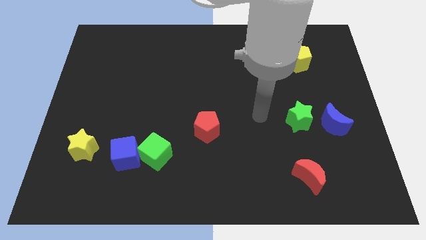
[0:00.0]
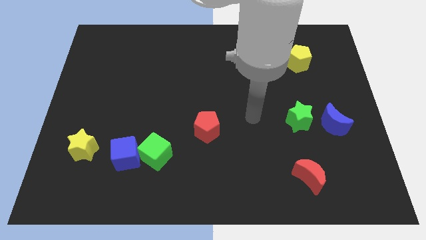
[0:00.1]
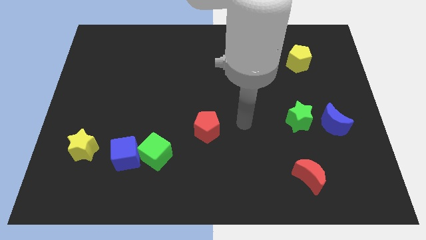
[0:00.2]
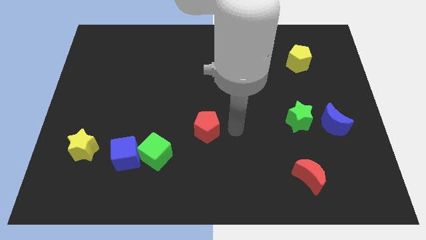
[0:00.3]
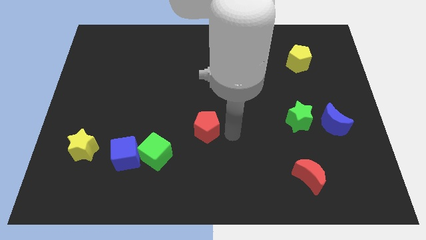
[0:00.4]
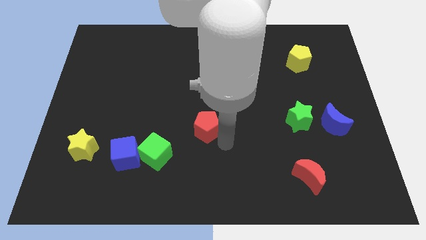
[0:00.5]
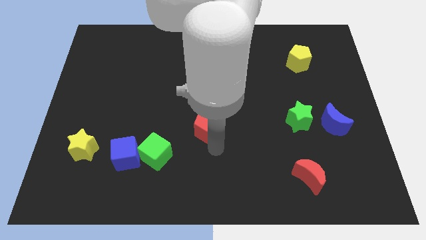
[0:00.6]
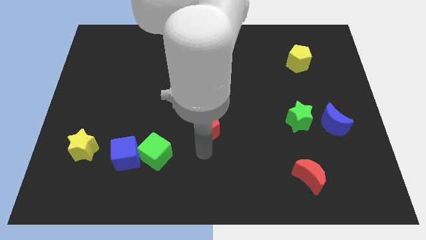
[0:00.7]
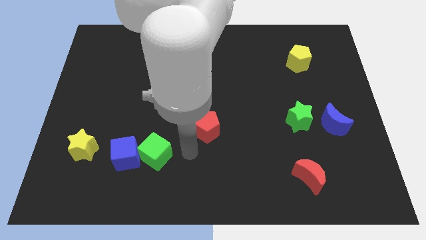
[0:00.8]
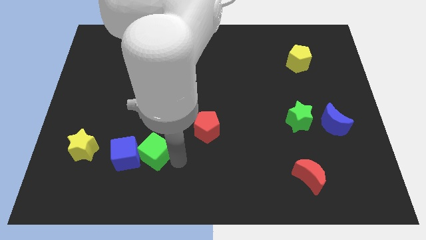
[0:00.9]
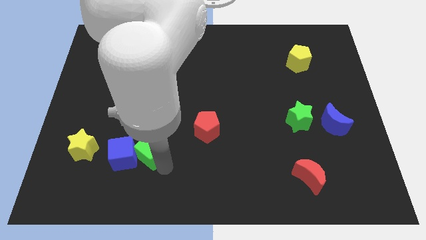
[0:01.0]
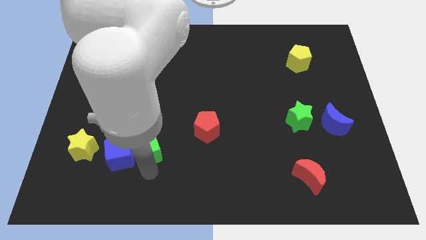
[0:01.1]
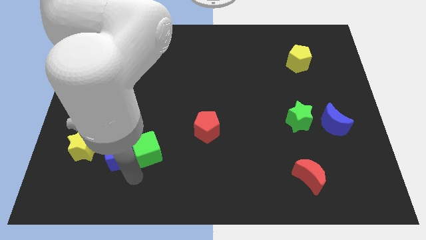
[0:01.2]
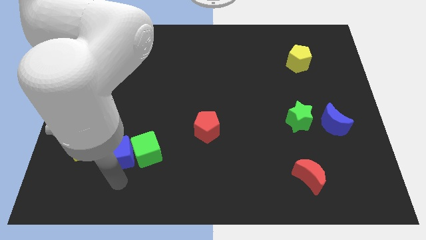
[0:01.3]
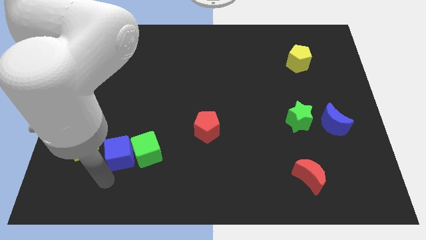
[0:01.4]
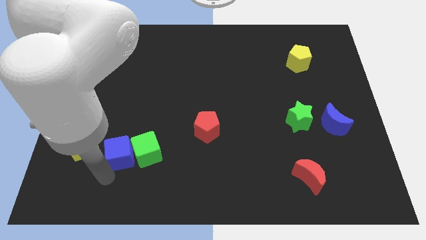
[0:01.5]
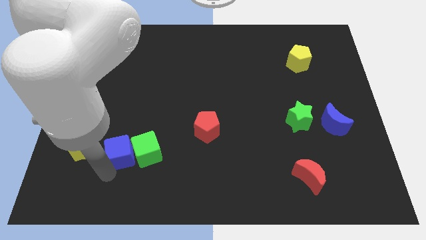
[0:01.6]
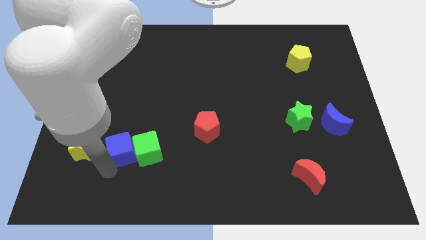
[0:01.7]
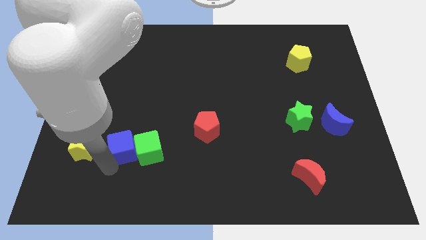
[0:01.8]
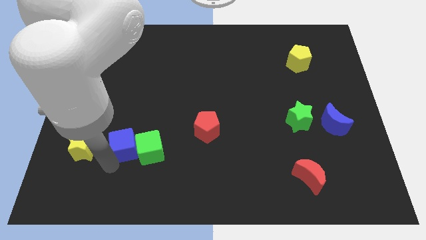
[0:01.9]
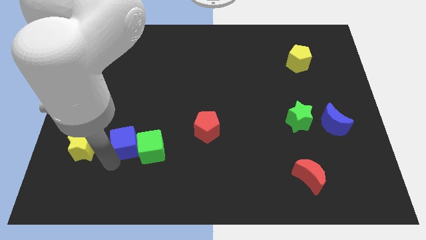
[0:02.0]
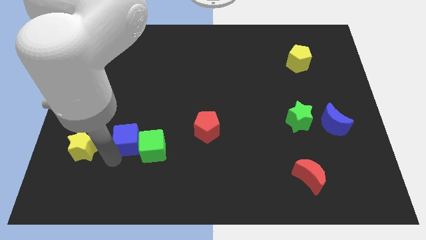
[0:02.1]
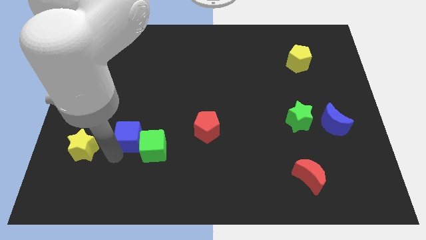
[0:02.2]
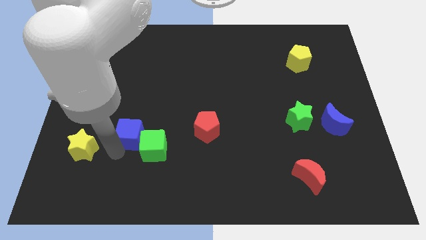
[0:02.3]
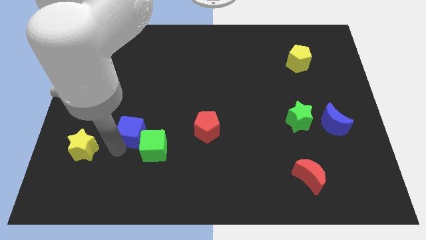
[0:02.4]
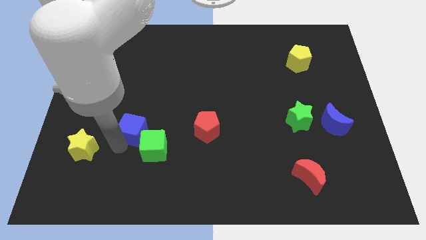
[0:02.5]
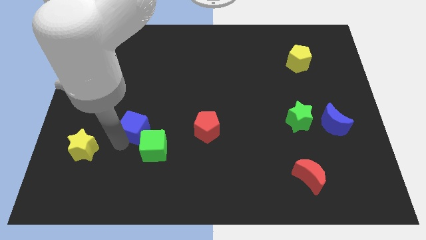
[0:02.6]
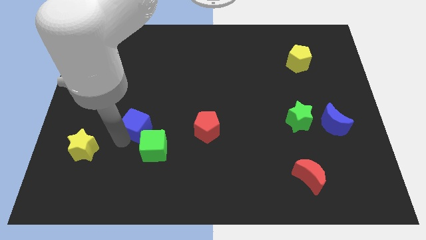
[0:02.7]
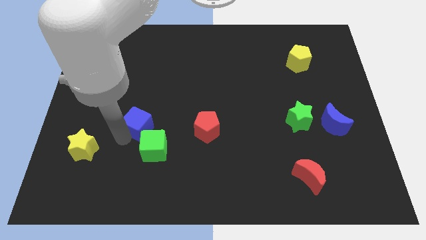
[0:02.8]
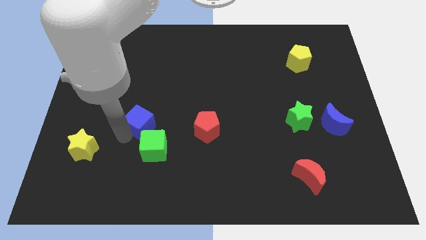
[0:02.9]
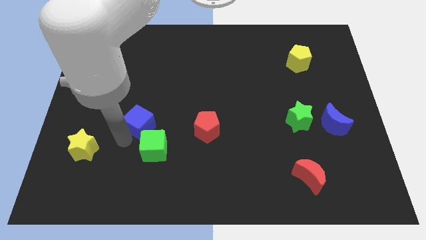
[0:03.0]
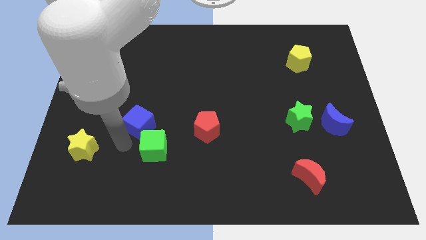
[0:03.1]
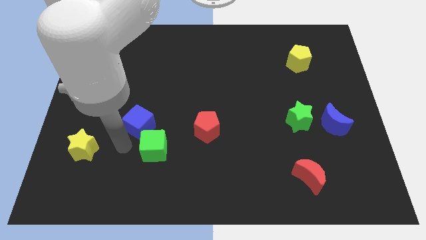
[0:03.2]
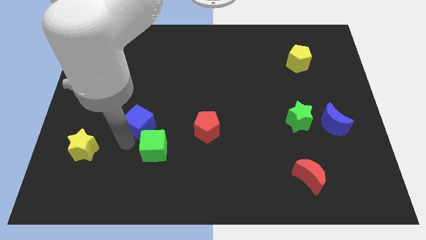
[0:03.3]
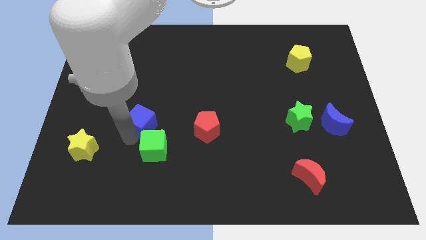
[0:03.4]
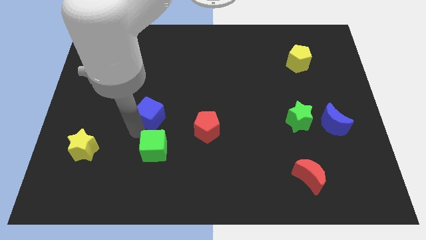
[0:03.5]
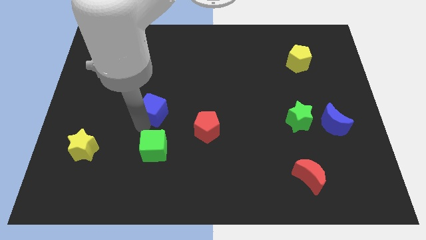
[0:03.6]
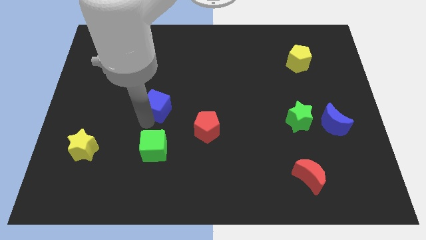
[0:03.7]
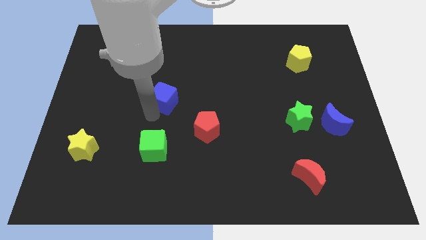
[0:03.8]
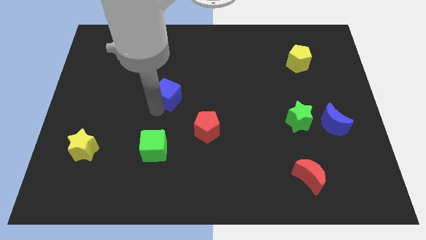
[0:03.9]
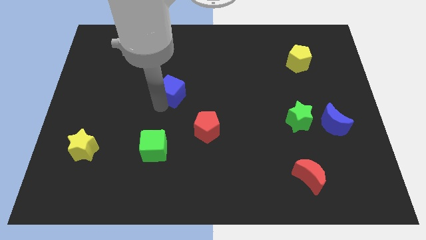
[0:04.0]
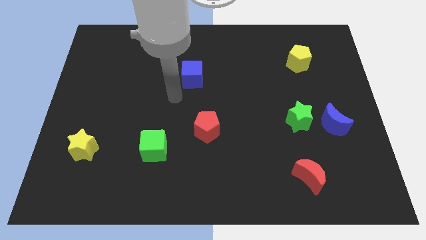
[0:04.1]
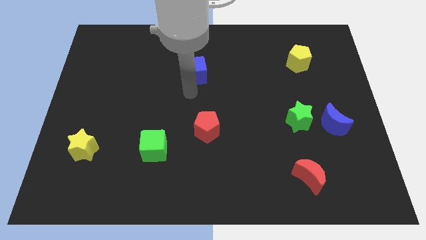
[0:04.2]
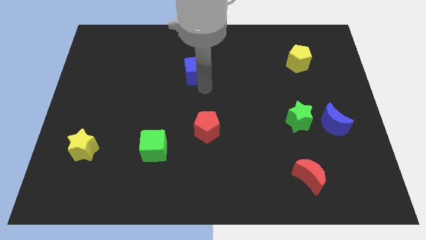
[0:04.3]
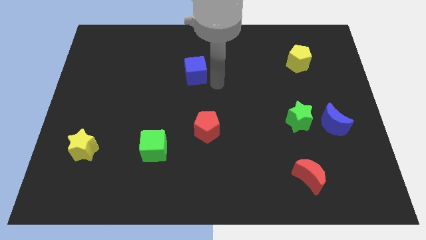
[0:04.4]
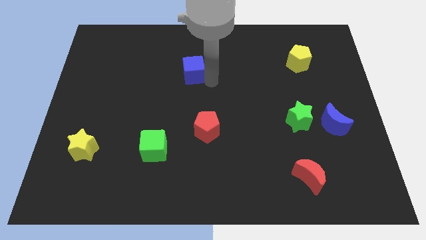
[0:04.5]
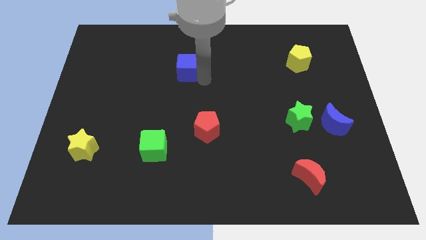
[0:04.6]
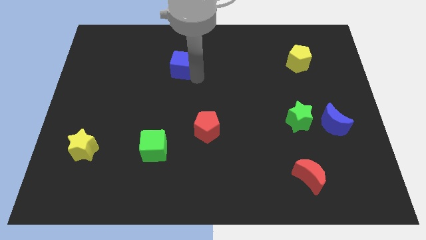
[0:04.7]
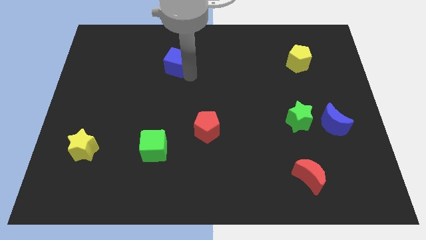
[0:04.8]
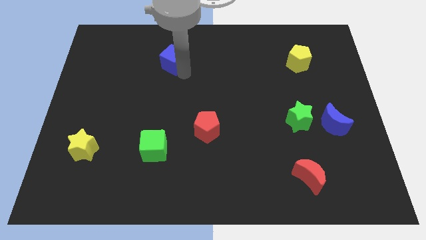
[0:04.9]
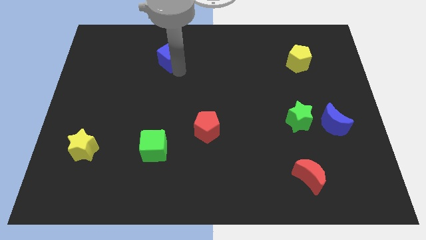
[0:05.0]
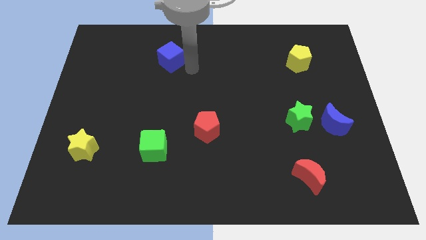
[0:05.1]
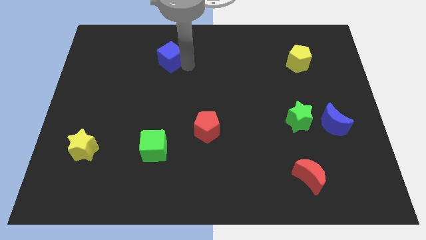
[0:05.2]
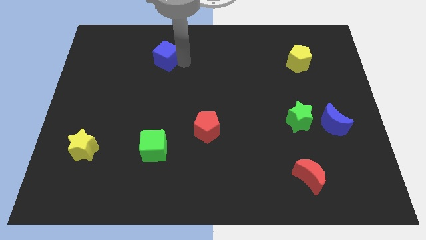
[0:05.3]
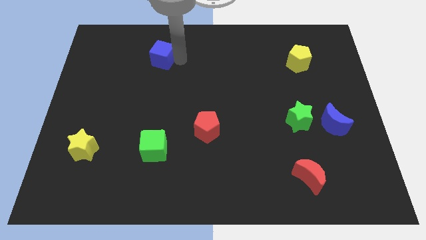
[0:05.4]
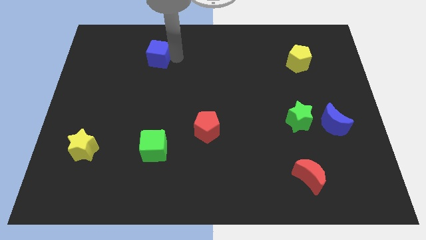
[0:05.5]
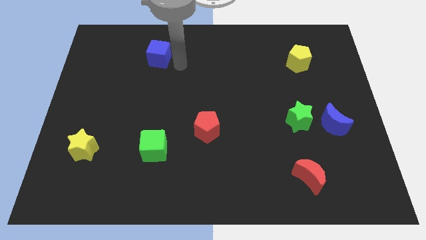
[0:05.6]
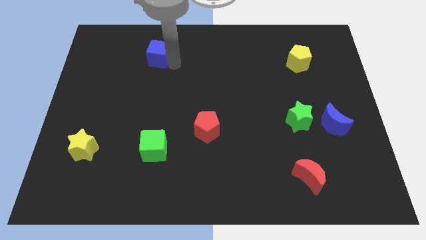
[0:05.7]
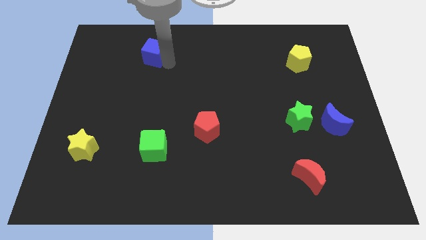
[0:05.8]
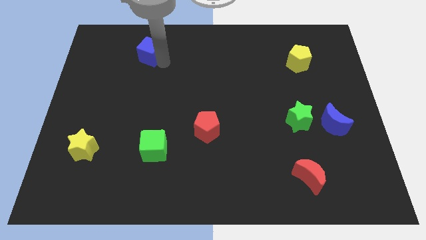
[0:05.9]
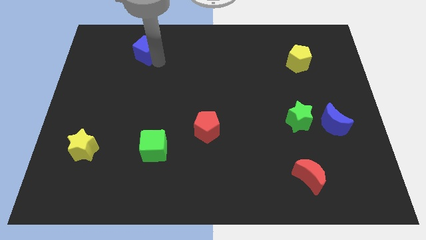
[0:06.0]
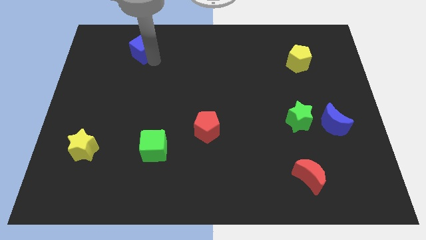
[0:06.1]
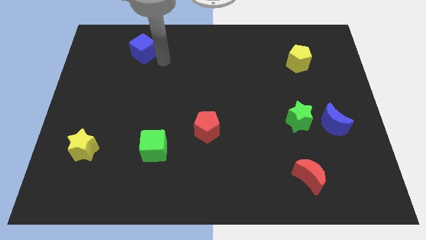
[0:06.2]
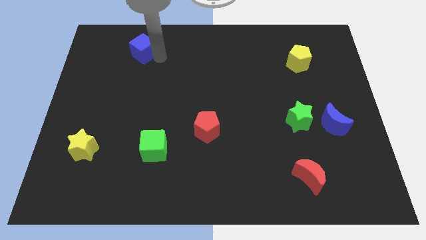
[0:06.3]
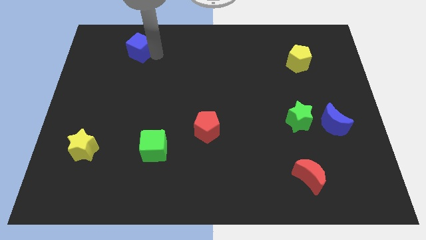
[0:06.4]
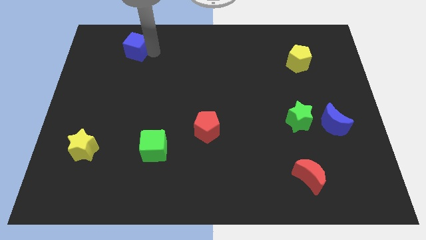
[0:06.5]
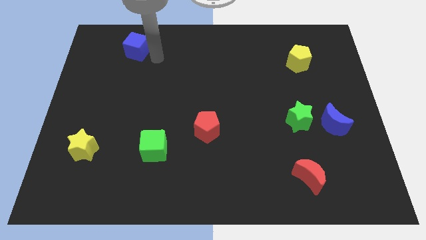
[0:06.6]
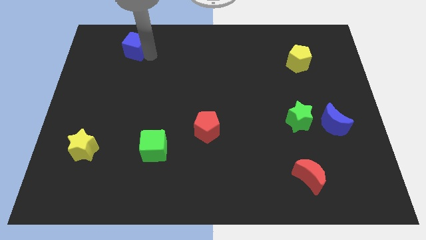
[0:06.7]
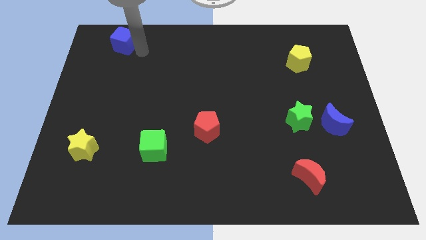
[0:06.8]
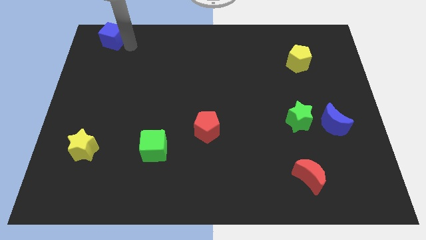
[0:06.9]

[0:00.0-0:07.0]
put the blue cube to the upper left corner

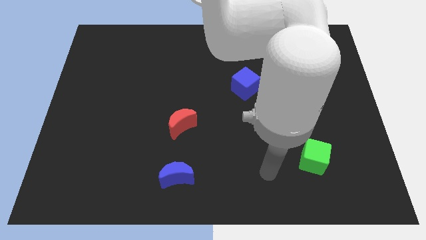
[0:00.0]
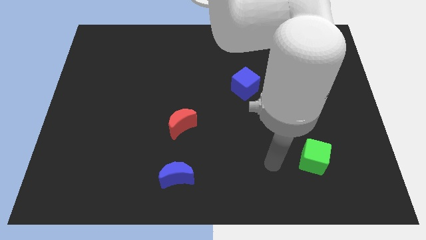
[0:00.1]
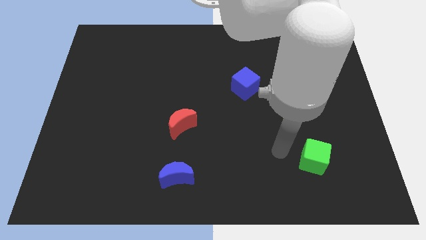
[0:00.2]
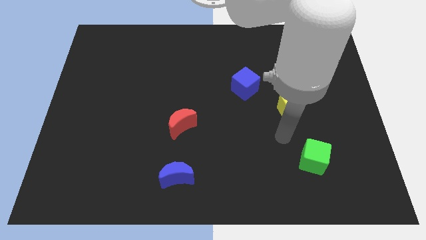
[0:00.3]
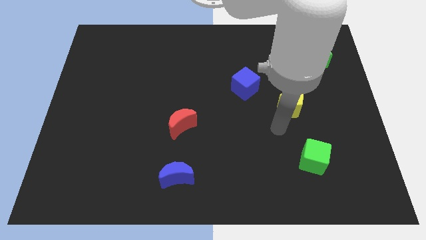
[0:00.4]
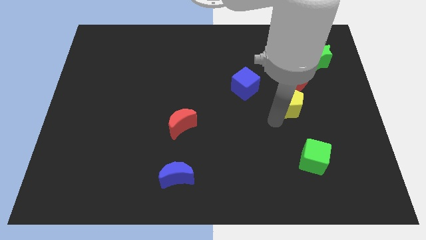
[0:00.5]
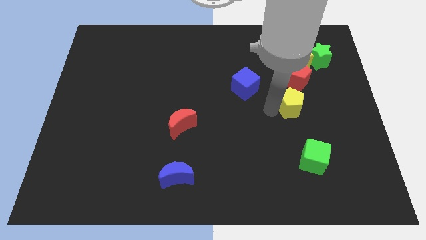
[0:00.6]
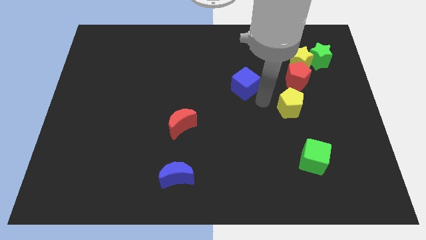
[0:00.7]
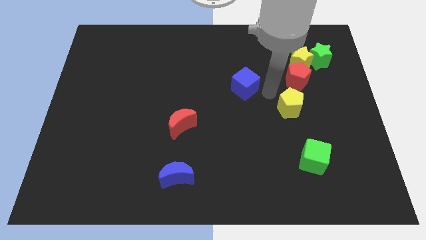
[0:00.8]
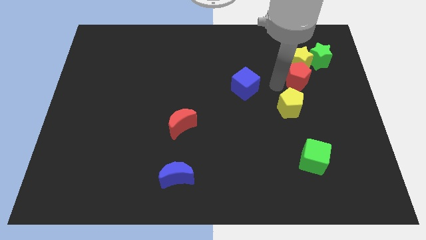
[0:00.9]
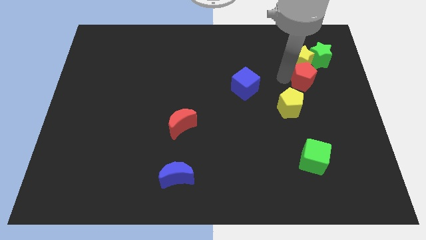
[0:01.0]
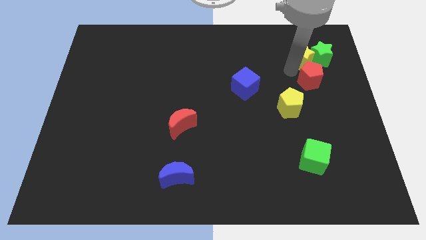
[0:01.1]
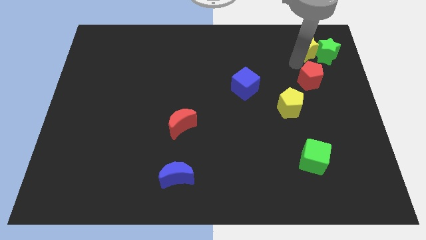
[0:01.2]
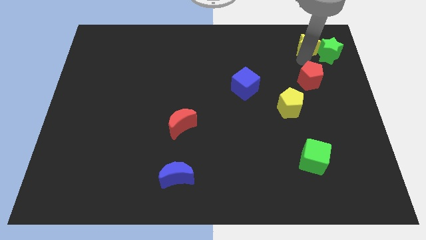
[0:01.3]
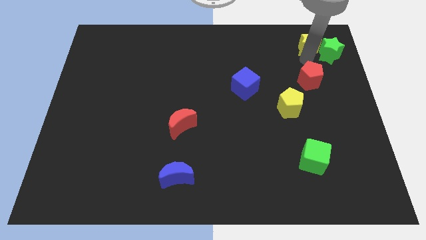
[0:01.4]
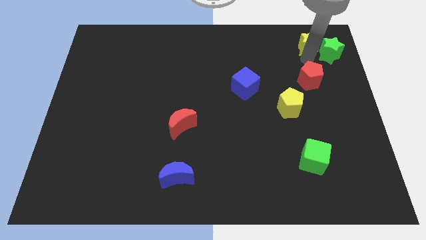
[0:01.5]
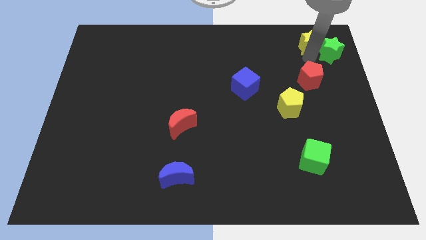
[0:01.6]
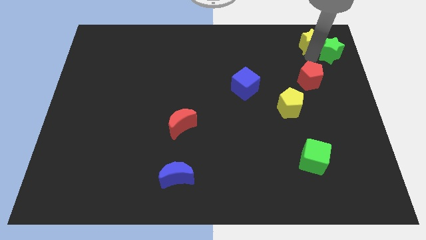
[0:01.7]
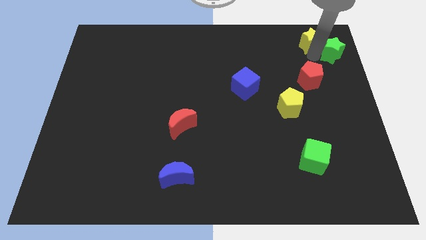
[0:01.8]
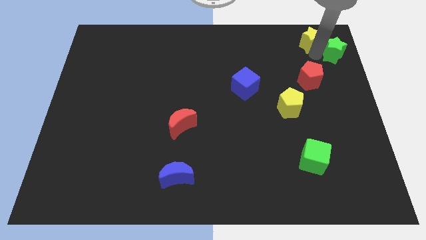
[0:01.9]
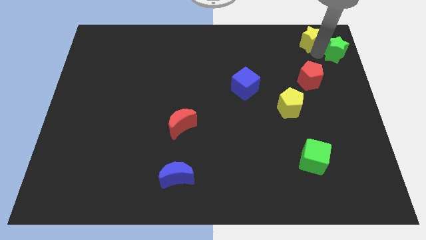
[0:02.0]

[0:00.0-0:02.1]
slide the green star to the top right of the board
